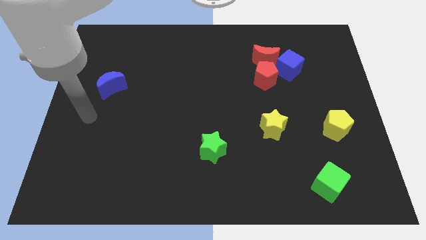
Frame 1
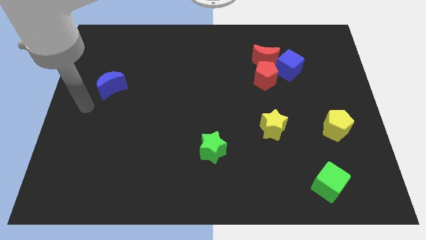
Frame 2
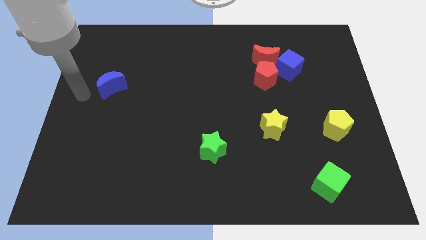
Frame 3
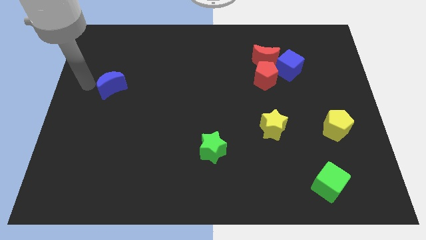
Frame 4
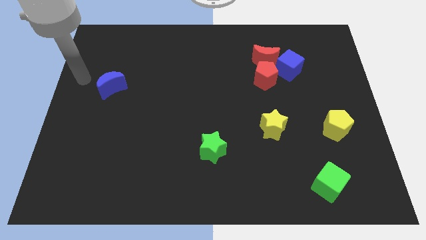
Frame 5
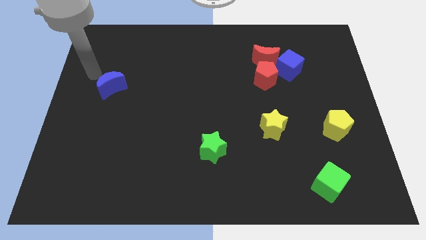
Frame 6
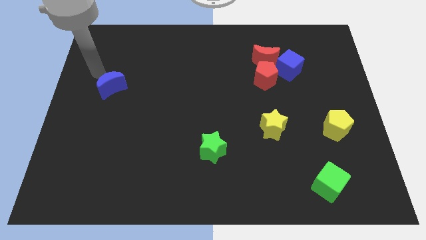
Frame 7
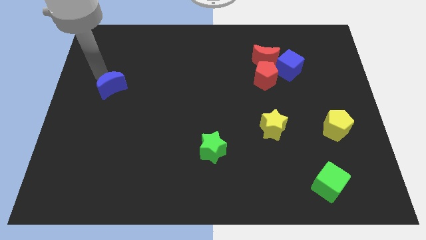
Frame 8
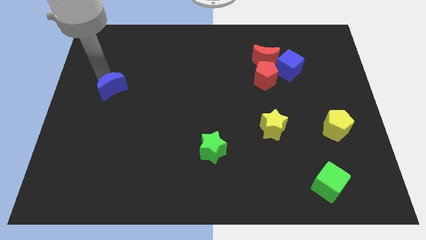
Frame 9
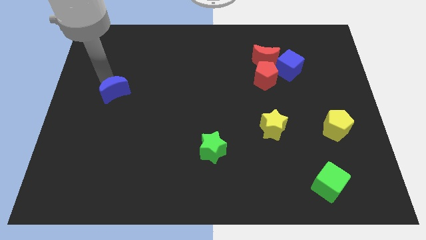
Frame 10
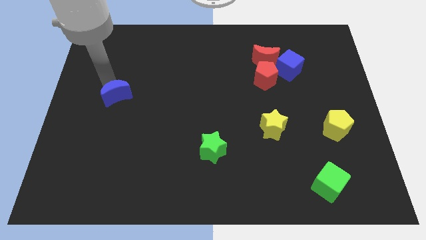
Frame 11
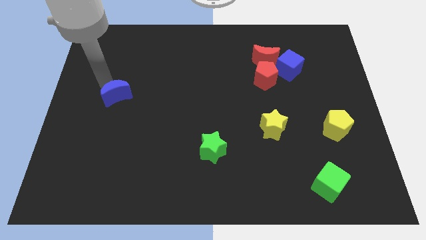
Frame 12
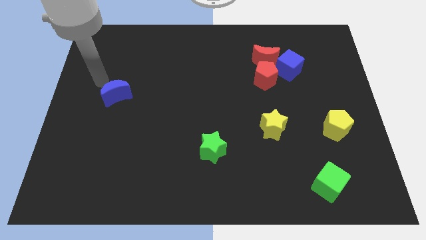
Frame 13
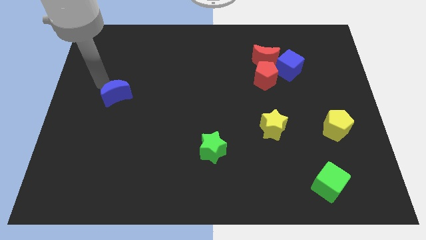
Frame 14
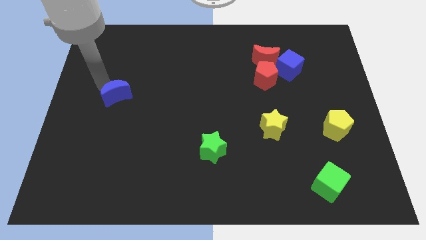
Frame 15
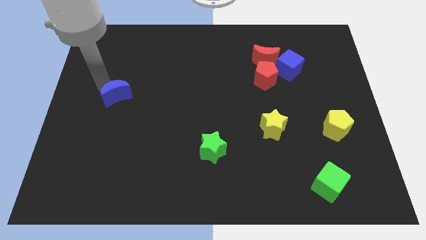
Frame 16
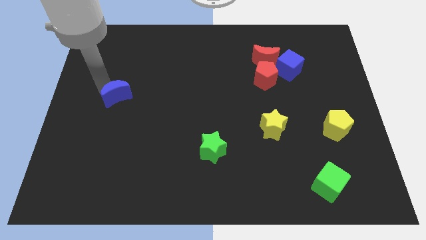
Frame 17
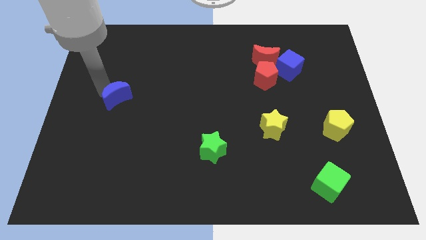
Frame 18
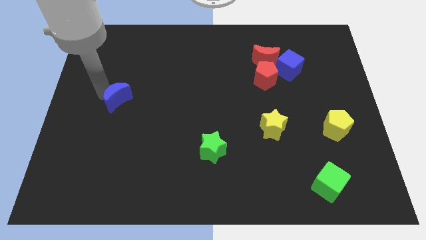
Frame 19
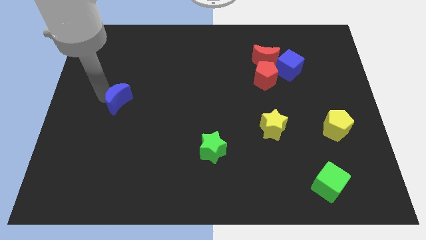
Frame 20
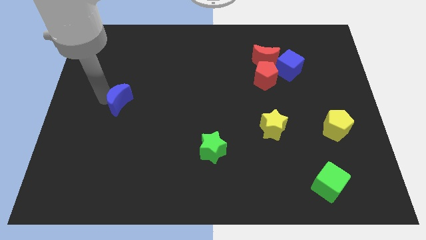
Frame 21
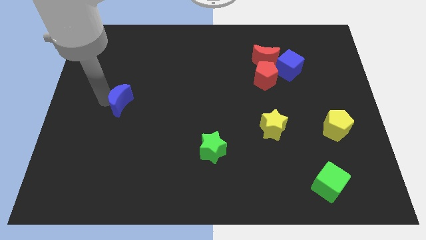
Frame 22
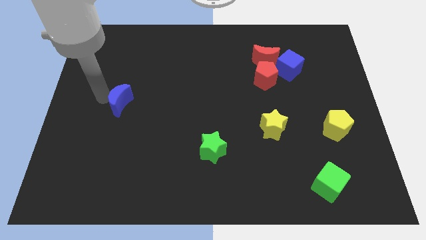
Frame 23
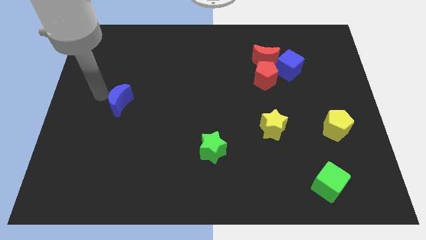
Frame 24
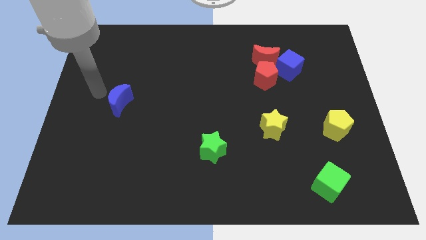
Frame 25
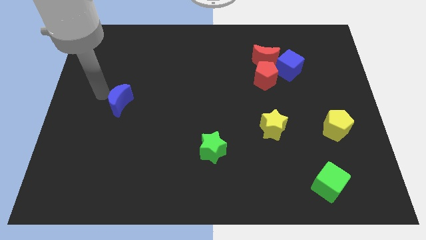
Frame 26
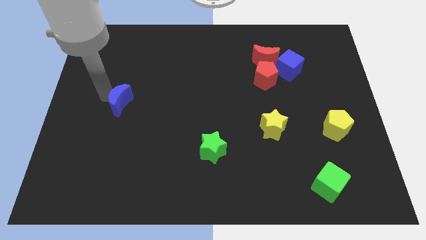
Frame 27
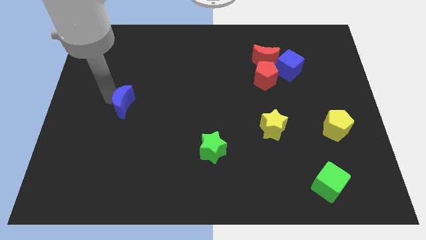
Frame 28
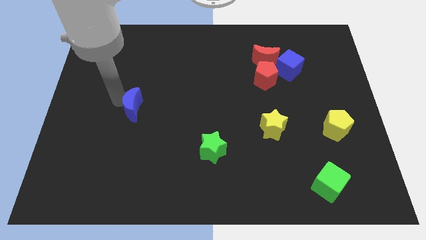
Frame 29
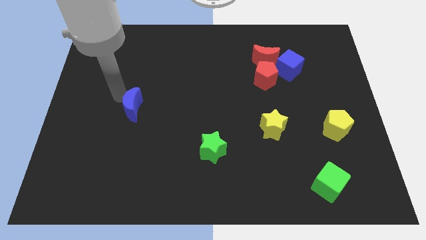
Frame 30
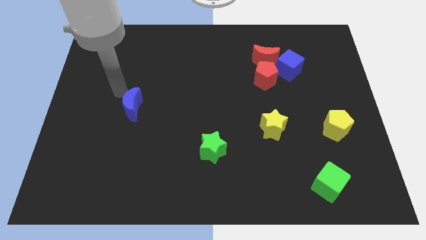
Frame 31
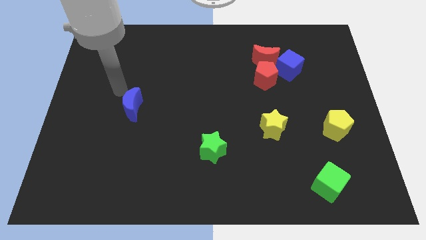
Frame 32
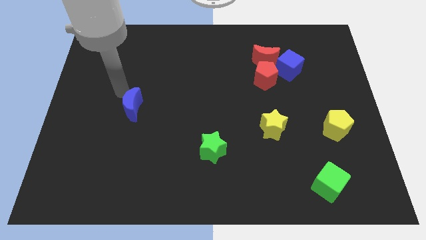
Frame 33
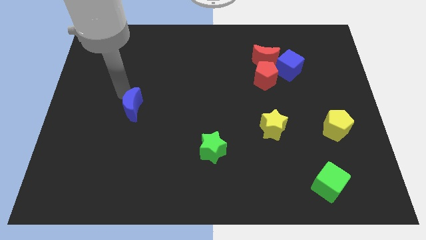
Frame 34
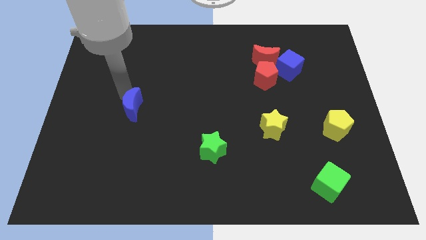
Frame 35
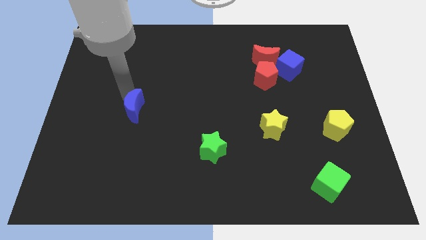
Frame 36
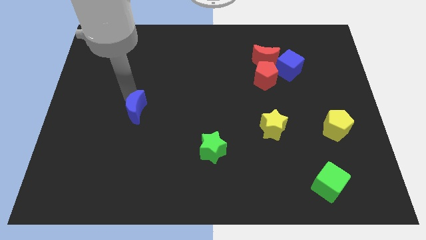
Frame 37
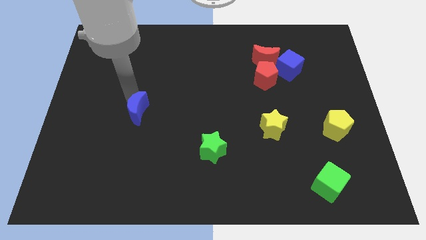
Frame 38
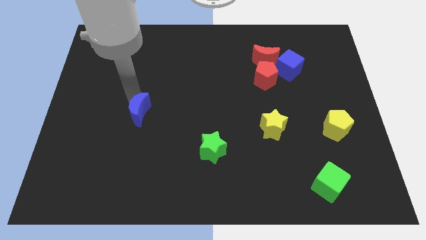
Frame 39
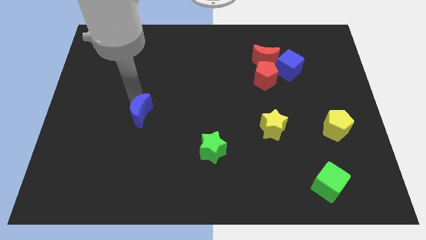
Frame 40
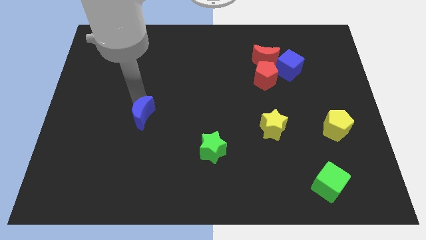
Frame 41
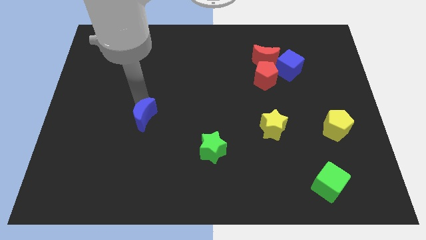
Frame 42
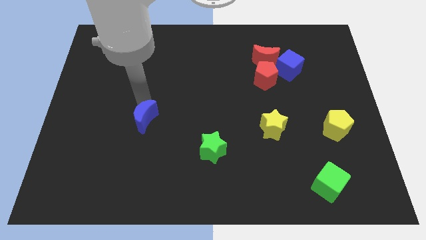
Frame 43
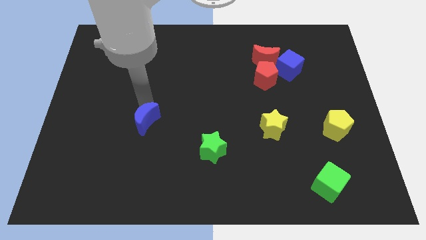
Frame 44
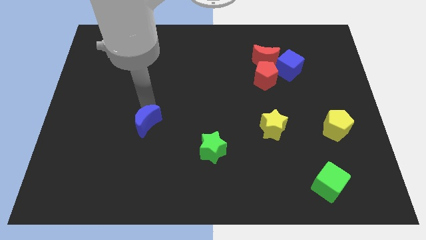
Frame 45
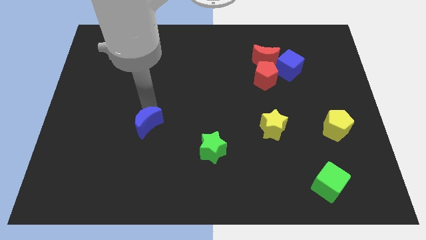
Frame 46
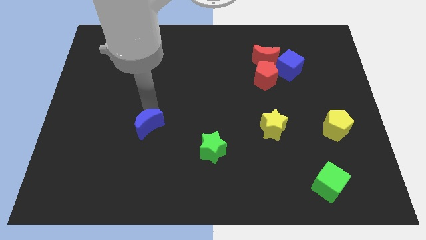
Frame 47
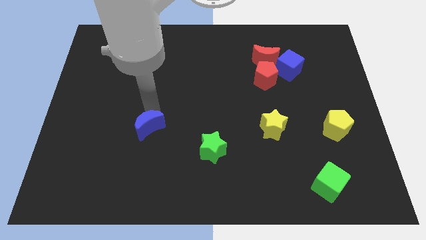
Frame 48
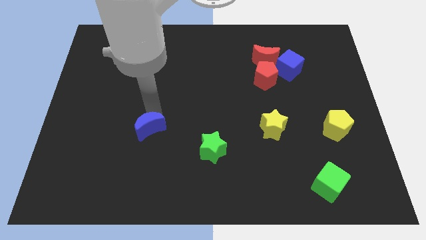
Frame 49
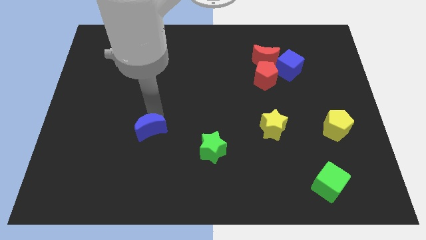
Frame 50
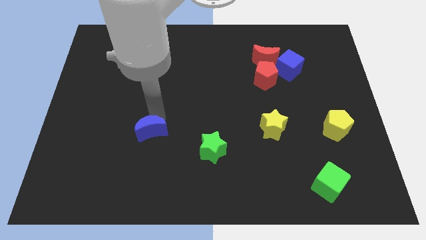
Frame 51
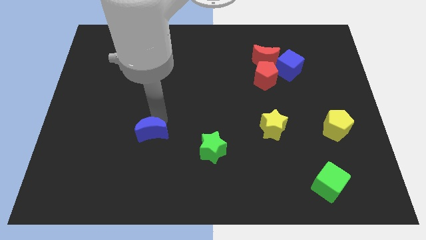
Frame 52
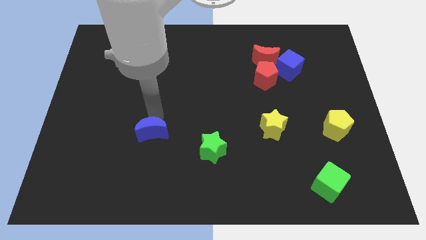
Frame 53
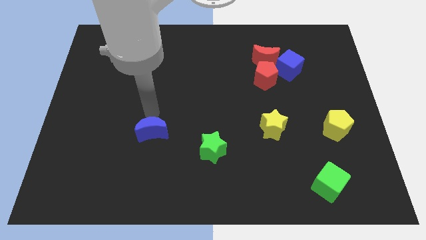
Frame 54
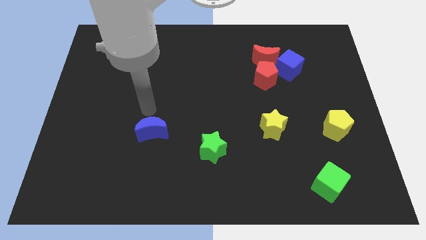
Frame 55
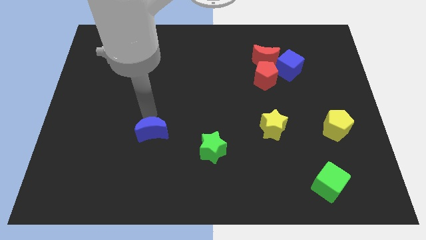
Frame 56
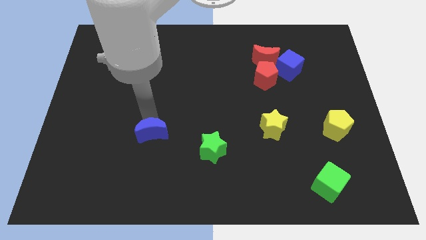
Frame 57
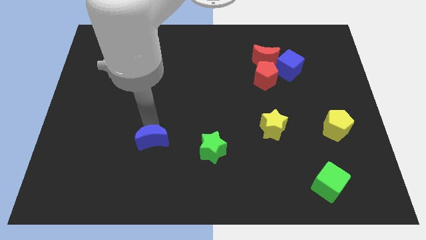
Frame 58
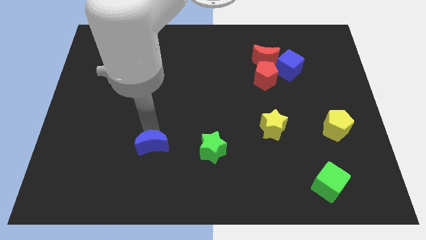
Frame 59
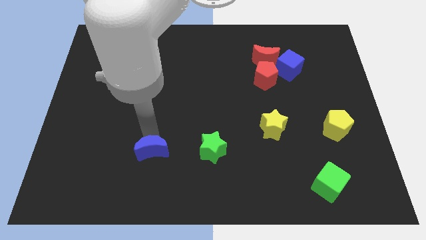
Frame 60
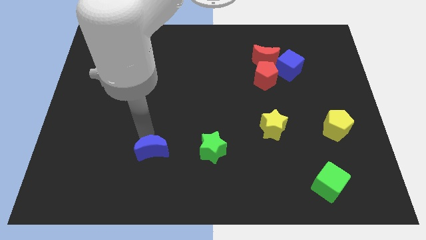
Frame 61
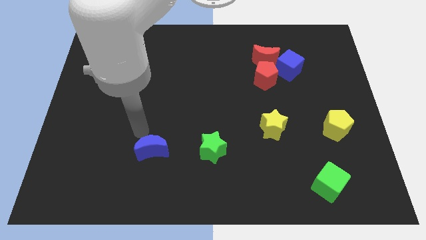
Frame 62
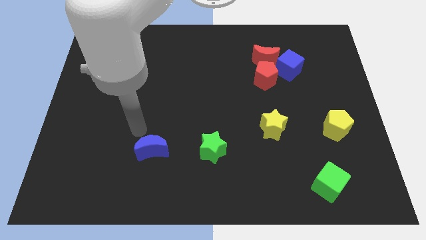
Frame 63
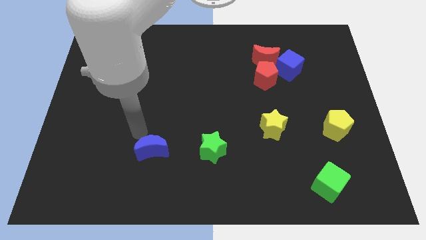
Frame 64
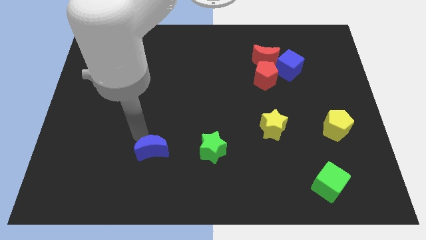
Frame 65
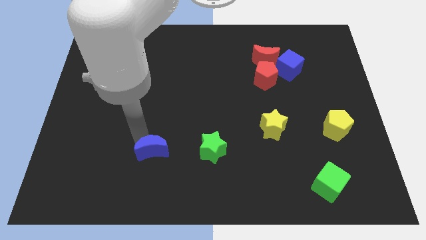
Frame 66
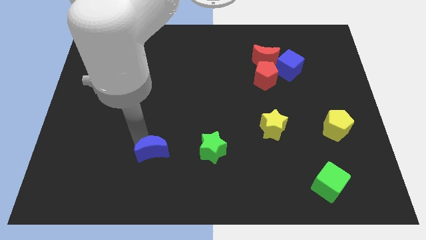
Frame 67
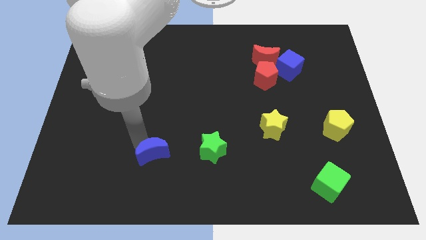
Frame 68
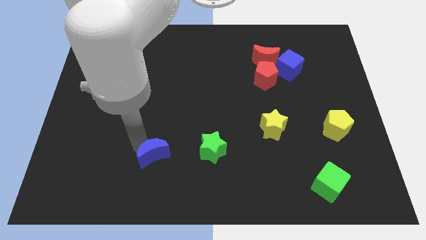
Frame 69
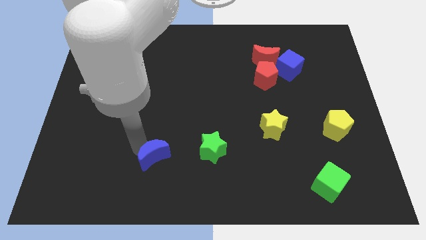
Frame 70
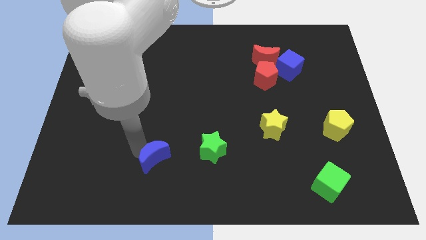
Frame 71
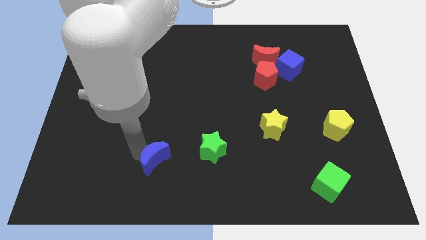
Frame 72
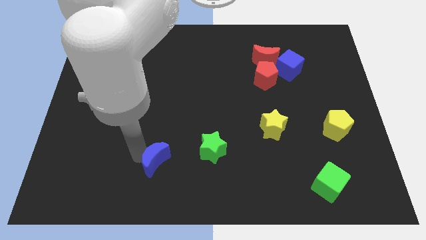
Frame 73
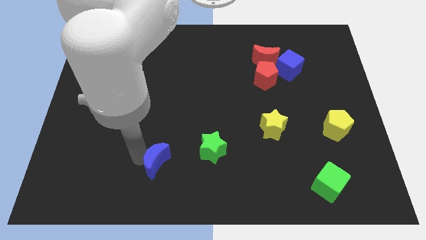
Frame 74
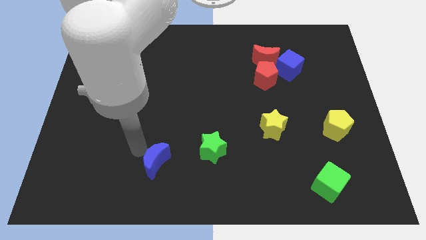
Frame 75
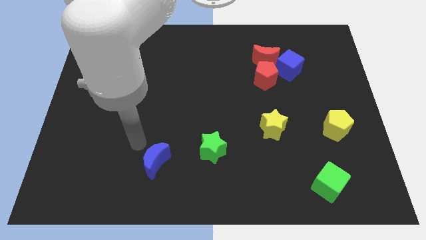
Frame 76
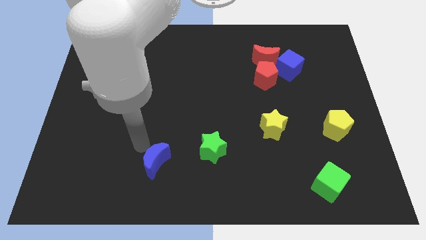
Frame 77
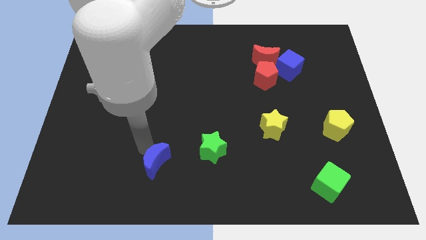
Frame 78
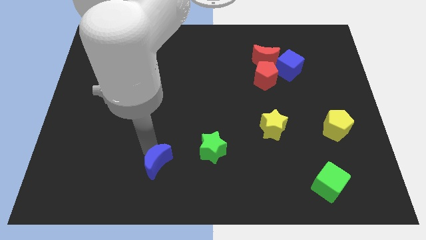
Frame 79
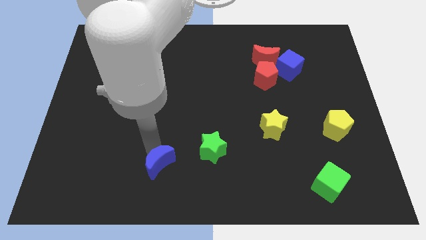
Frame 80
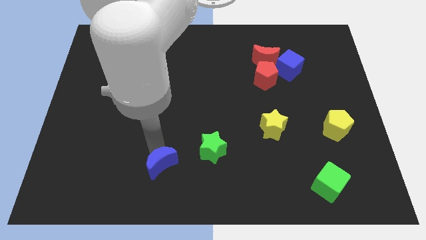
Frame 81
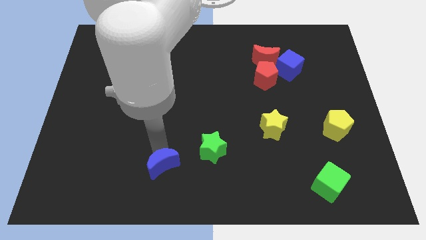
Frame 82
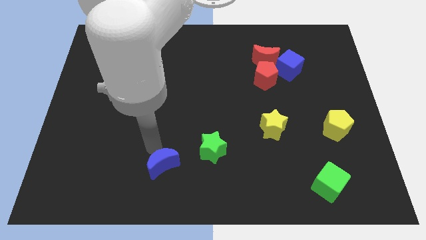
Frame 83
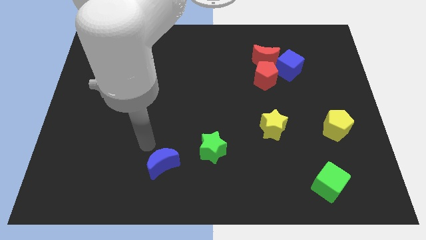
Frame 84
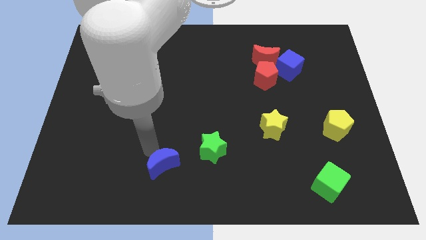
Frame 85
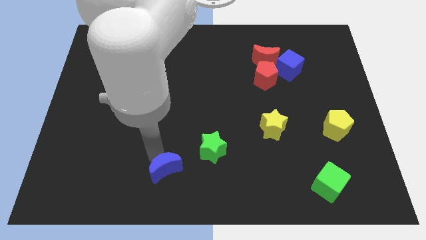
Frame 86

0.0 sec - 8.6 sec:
move the blue moon to the bottom side
